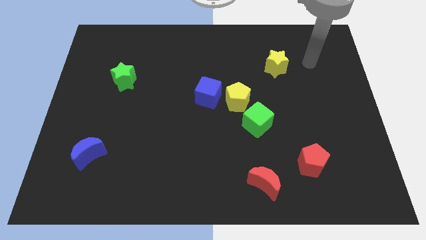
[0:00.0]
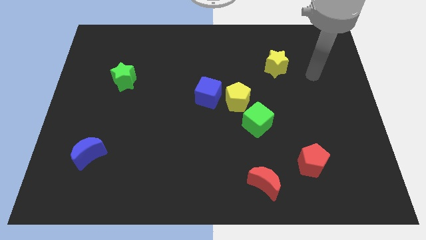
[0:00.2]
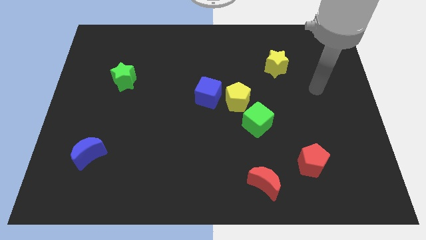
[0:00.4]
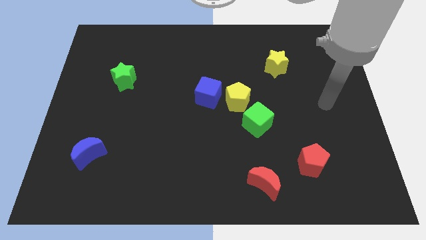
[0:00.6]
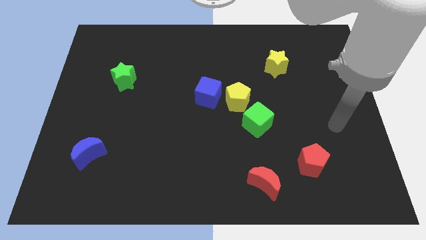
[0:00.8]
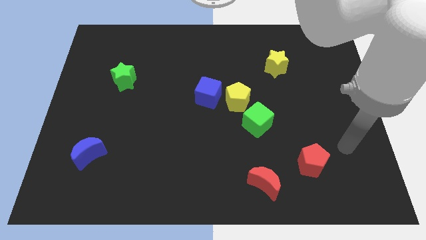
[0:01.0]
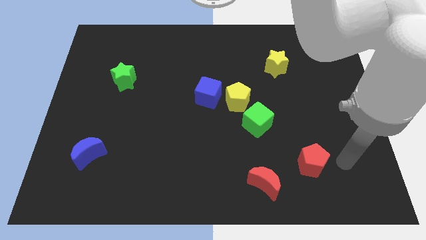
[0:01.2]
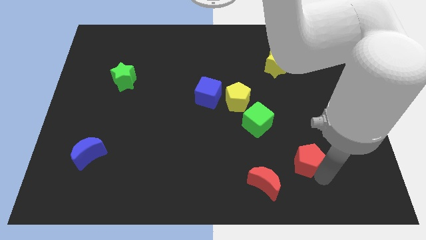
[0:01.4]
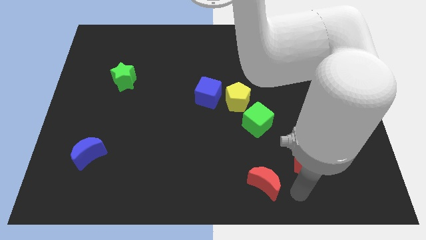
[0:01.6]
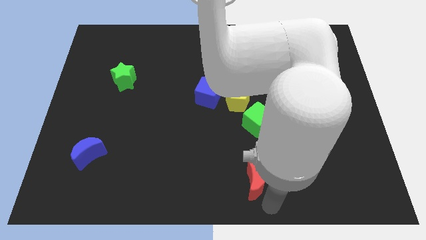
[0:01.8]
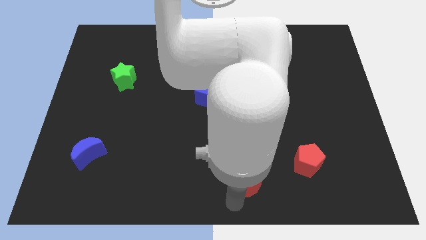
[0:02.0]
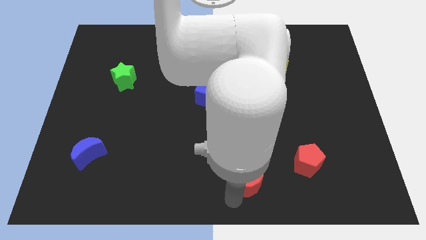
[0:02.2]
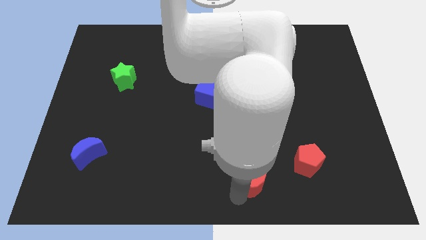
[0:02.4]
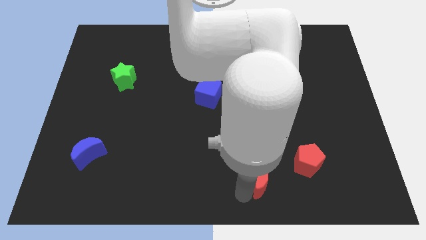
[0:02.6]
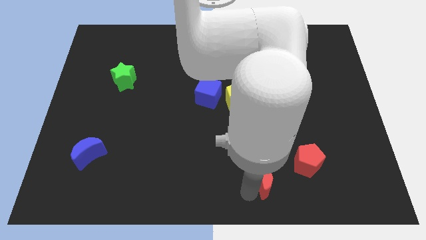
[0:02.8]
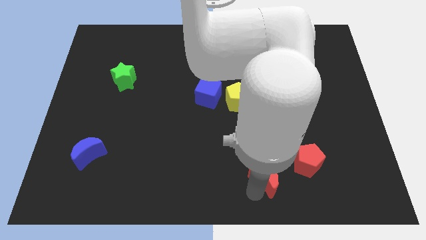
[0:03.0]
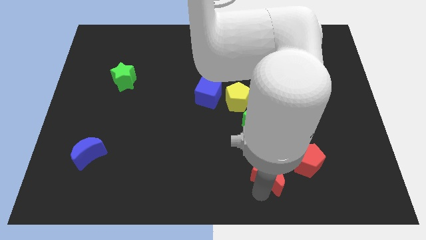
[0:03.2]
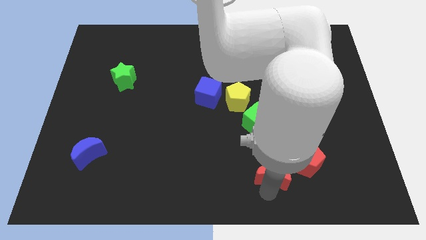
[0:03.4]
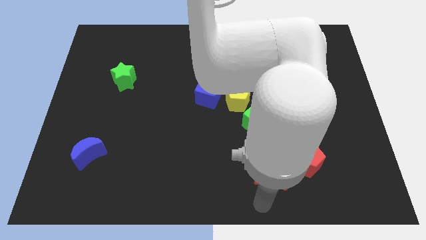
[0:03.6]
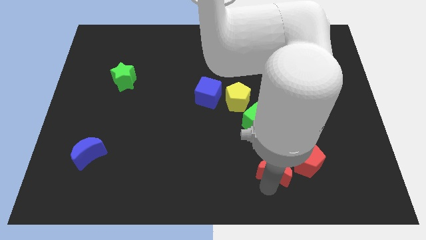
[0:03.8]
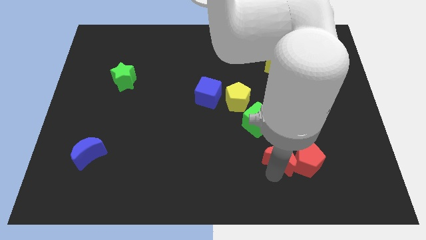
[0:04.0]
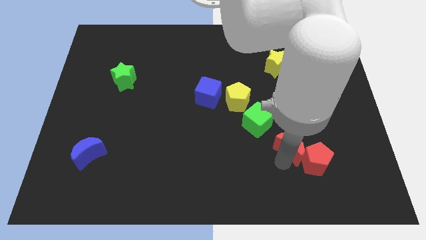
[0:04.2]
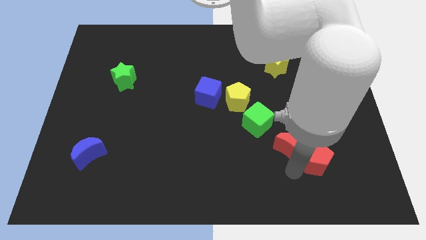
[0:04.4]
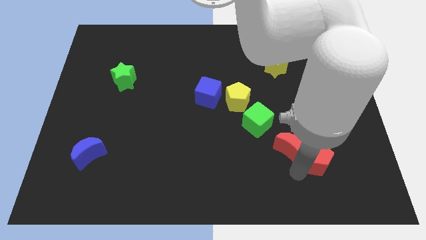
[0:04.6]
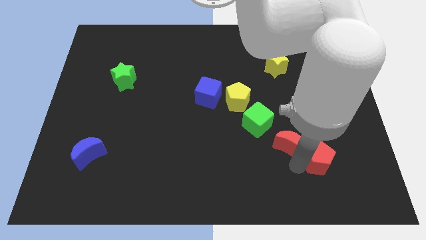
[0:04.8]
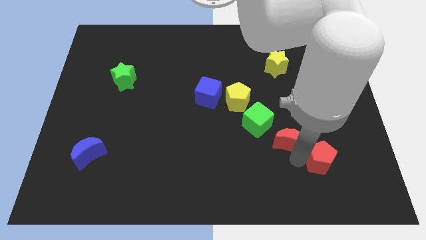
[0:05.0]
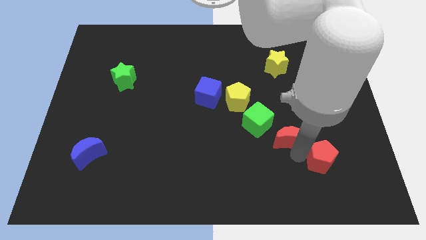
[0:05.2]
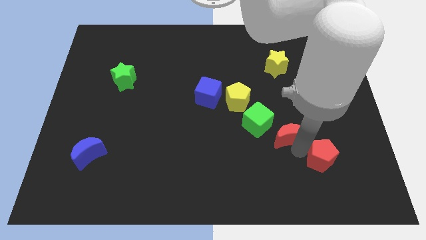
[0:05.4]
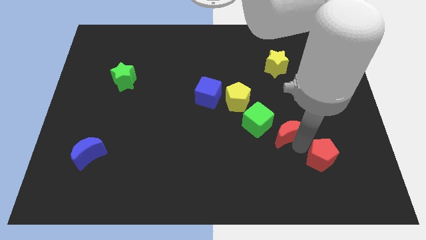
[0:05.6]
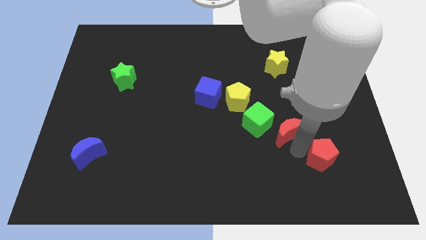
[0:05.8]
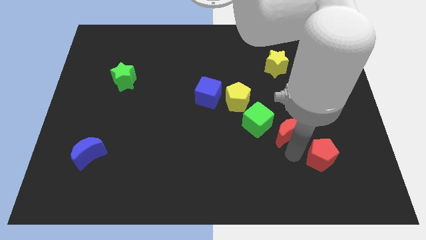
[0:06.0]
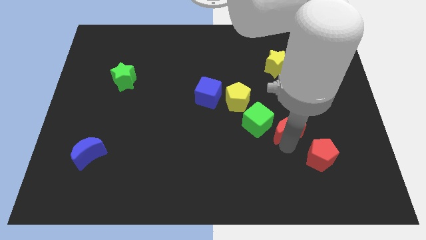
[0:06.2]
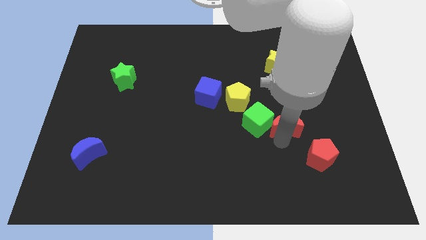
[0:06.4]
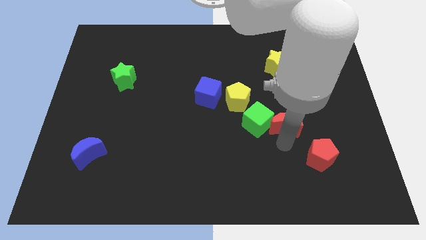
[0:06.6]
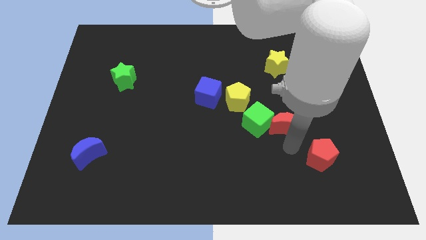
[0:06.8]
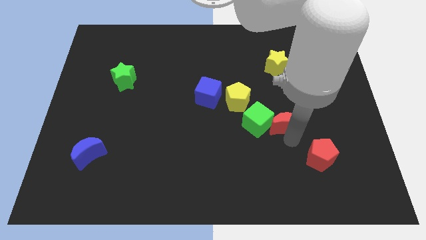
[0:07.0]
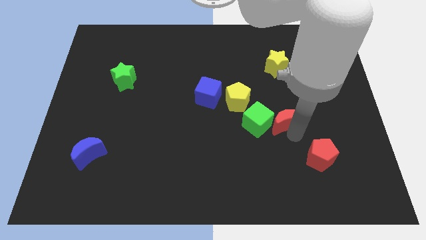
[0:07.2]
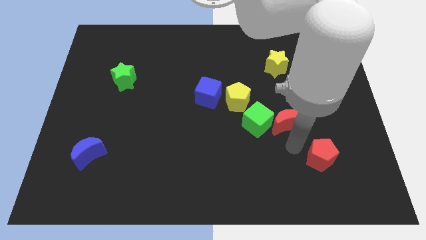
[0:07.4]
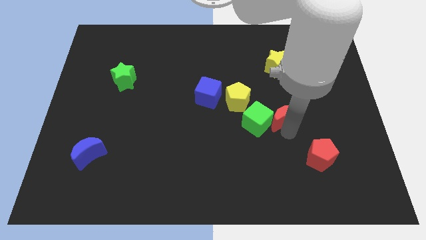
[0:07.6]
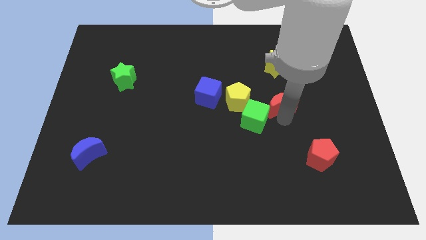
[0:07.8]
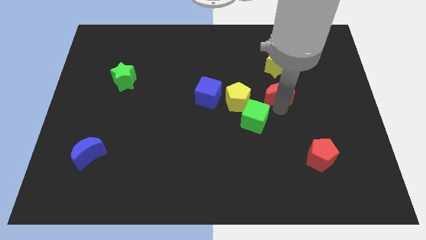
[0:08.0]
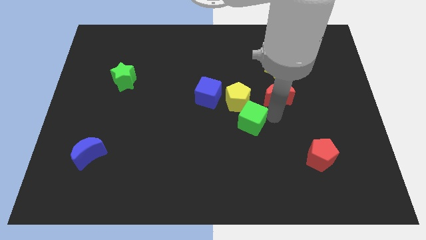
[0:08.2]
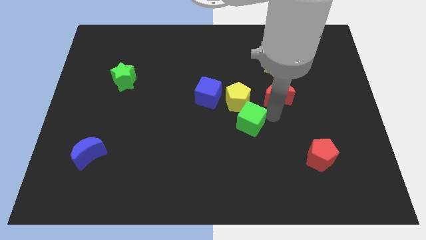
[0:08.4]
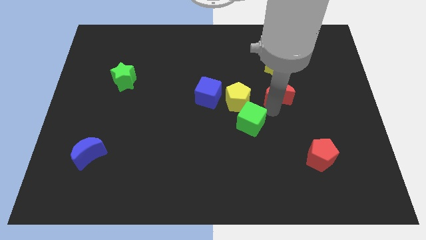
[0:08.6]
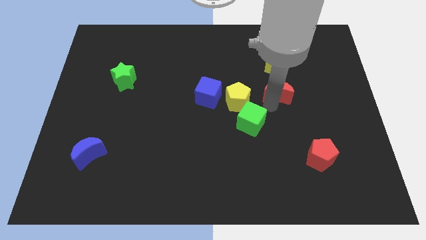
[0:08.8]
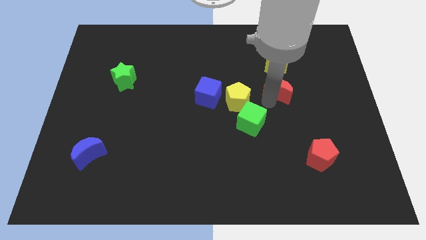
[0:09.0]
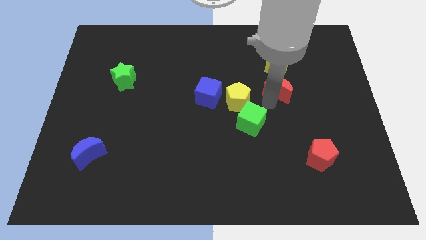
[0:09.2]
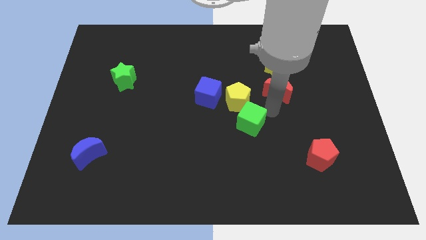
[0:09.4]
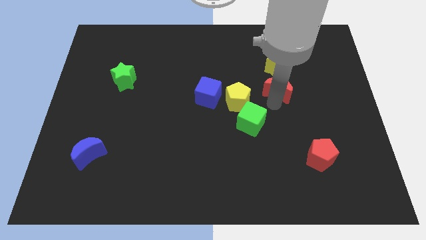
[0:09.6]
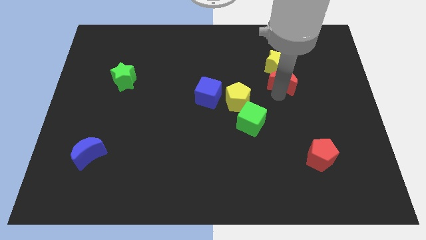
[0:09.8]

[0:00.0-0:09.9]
push the red moon towards the yellow star

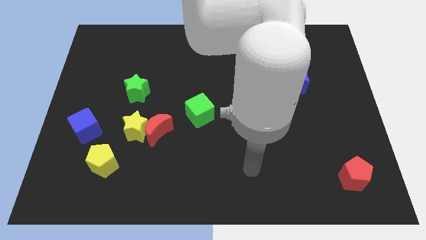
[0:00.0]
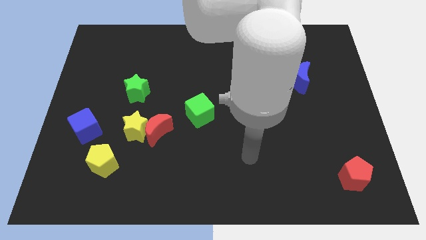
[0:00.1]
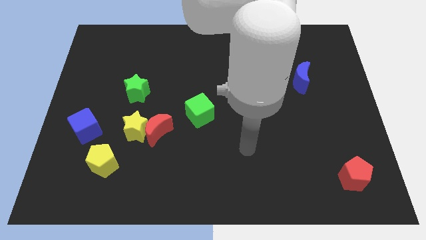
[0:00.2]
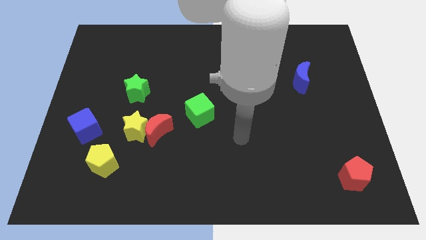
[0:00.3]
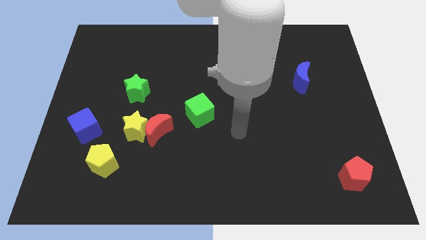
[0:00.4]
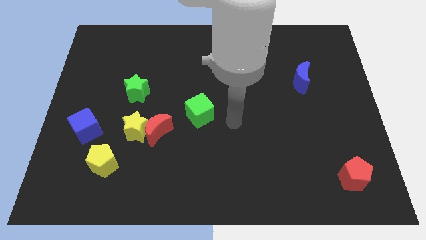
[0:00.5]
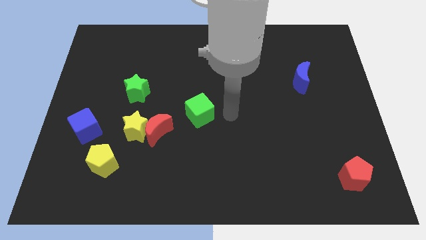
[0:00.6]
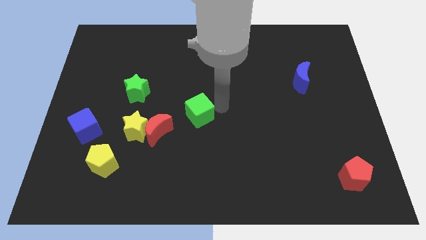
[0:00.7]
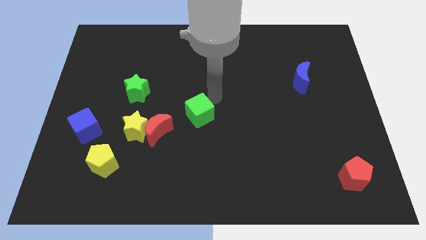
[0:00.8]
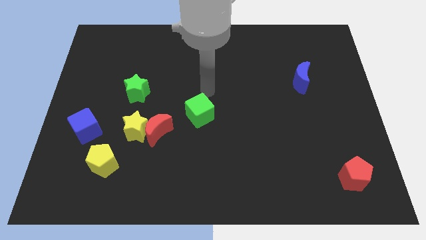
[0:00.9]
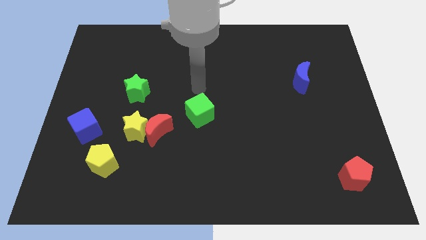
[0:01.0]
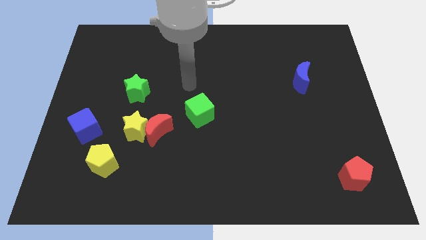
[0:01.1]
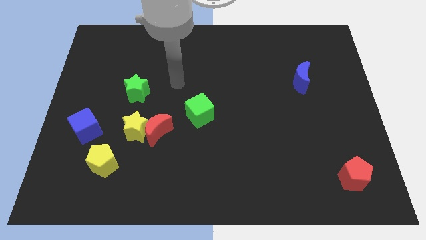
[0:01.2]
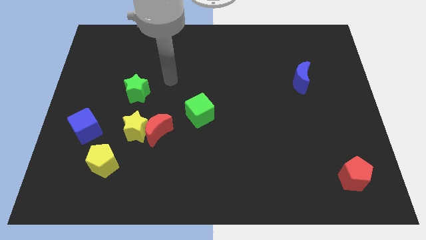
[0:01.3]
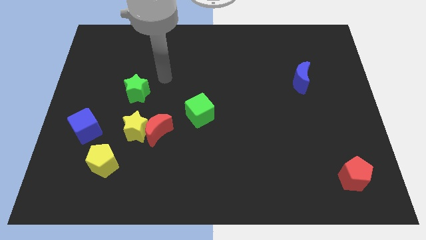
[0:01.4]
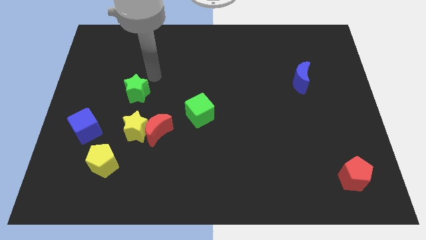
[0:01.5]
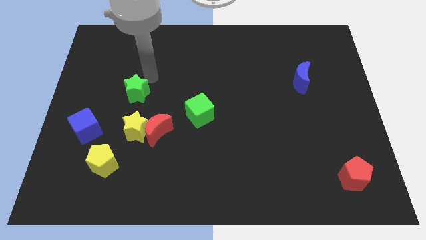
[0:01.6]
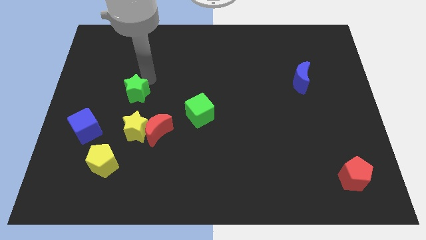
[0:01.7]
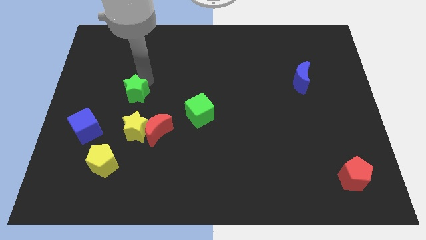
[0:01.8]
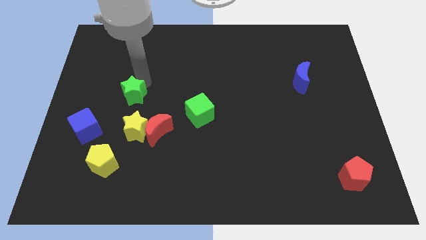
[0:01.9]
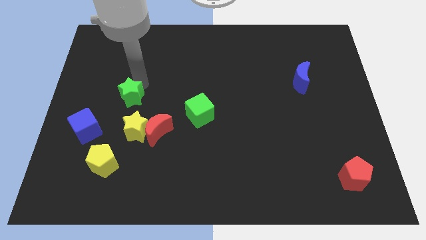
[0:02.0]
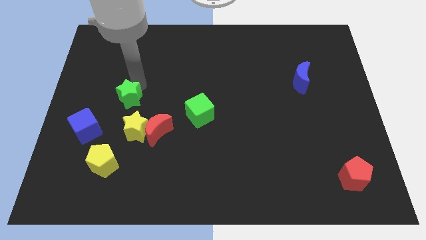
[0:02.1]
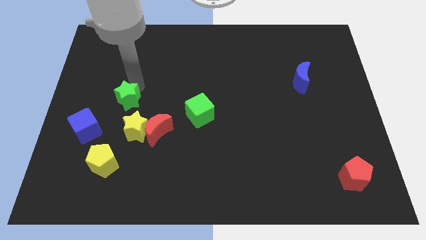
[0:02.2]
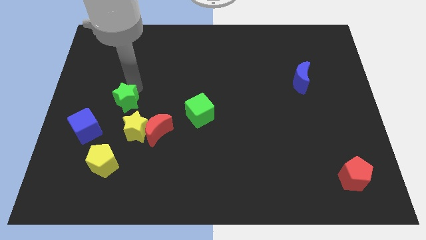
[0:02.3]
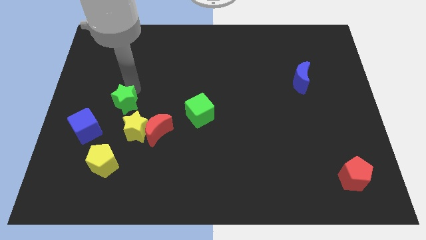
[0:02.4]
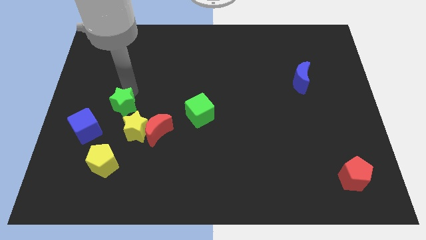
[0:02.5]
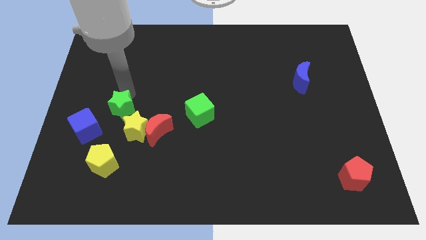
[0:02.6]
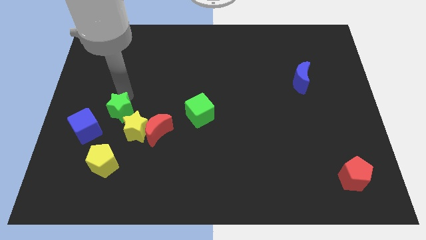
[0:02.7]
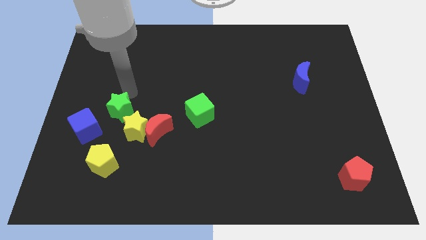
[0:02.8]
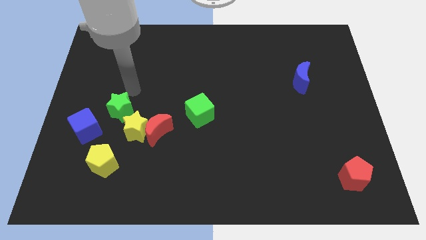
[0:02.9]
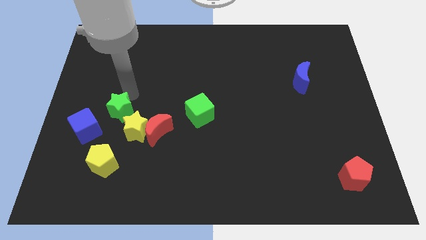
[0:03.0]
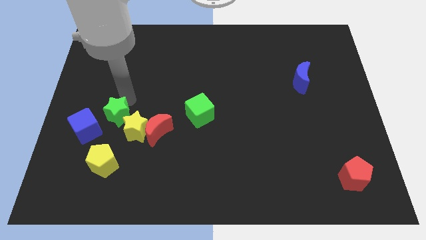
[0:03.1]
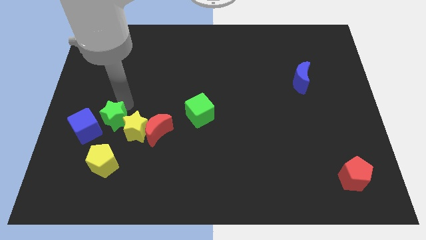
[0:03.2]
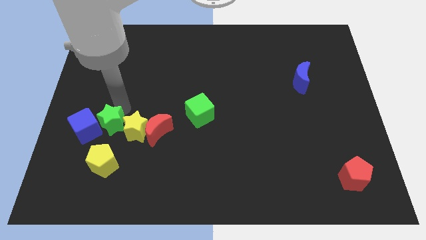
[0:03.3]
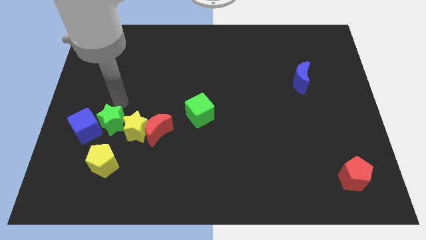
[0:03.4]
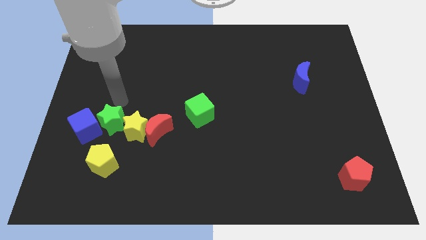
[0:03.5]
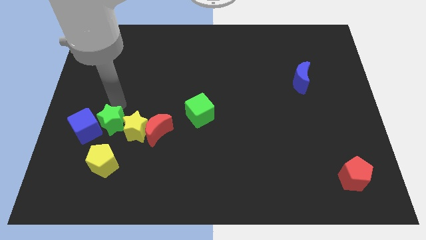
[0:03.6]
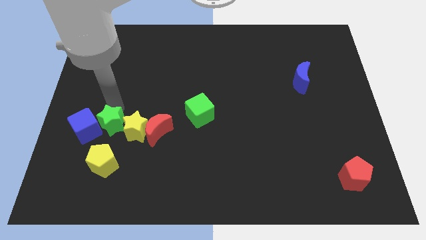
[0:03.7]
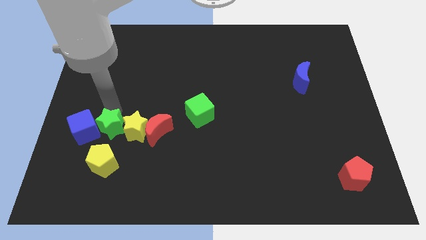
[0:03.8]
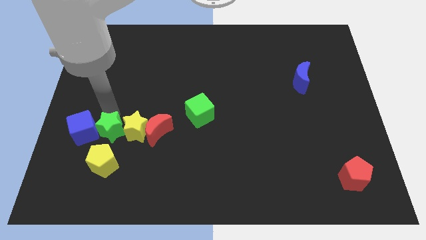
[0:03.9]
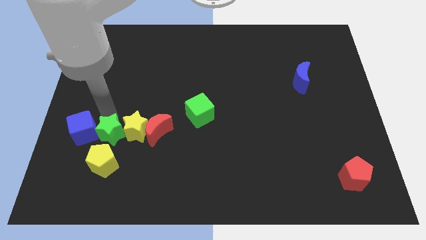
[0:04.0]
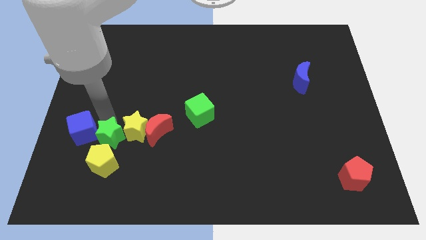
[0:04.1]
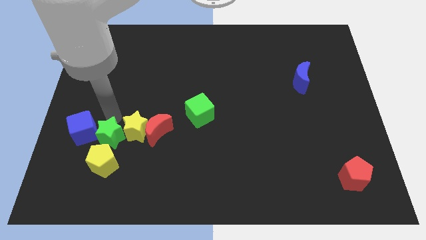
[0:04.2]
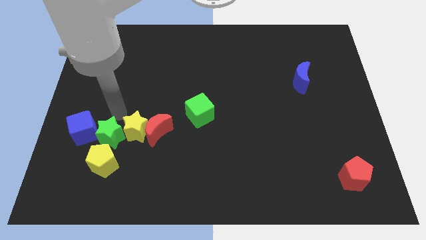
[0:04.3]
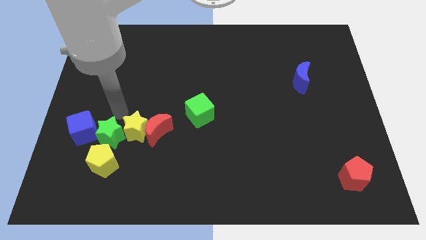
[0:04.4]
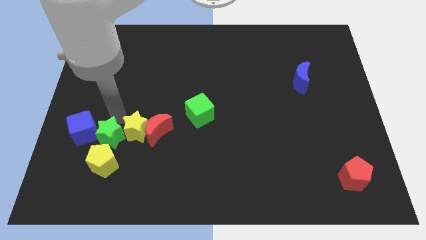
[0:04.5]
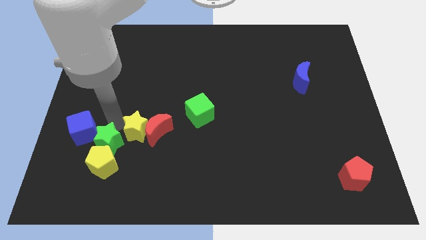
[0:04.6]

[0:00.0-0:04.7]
slide the green star next to the yellow pentagon
